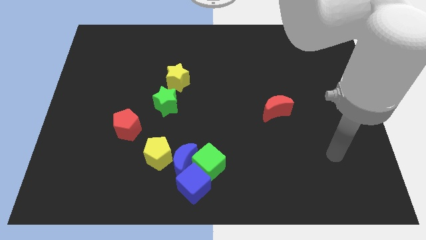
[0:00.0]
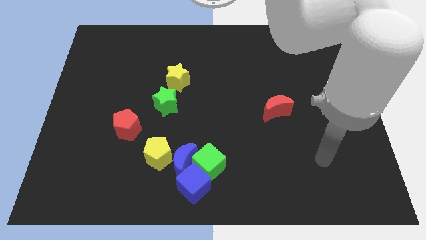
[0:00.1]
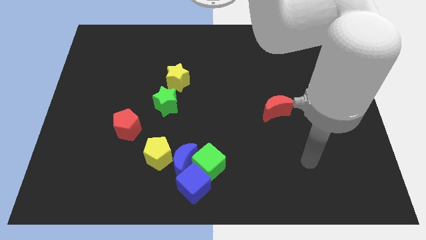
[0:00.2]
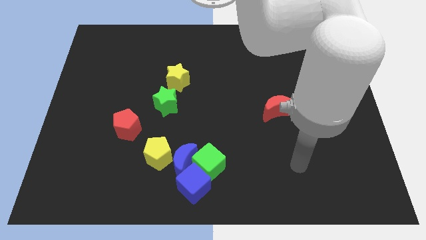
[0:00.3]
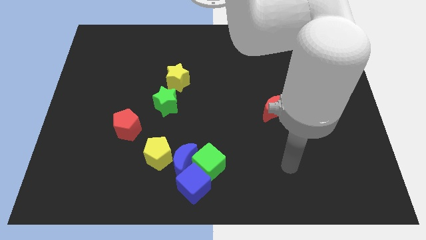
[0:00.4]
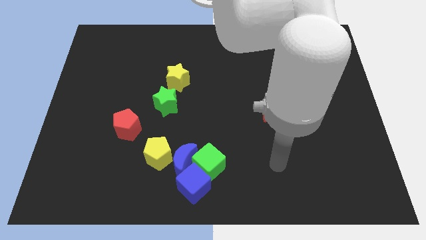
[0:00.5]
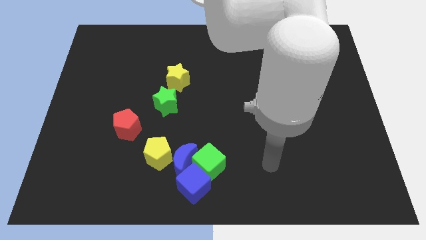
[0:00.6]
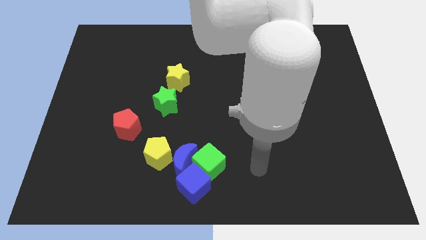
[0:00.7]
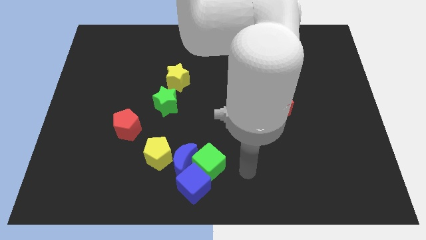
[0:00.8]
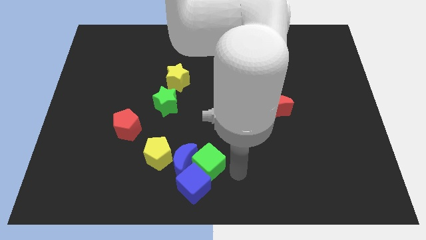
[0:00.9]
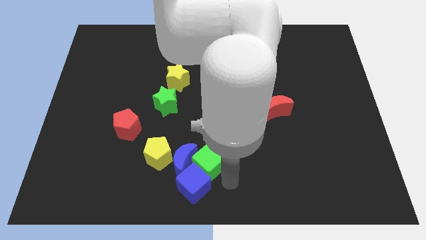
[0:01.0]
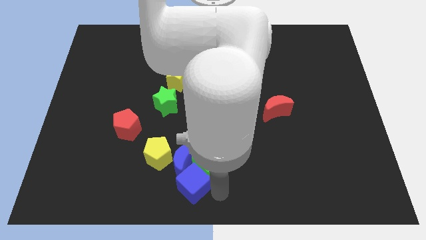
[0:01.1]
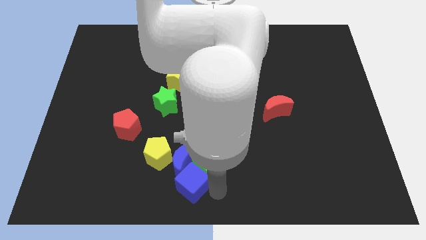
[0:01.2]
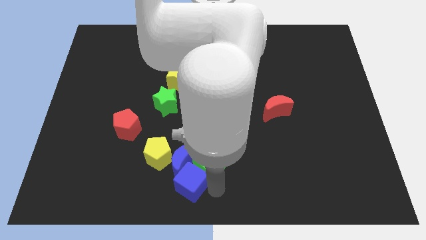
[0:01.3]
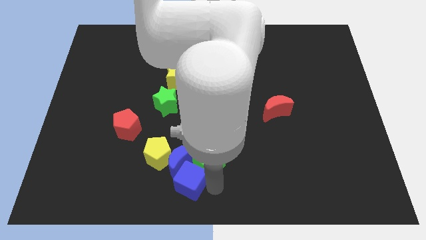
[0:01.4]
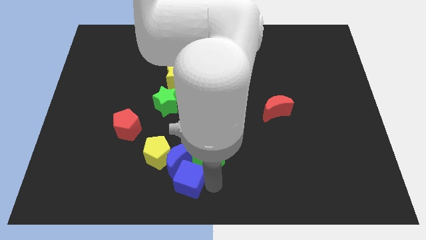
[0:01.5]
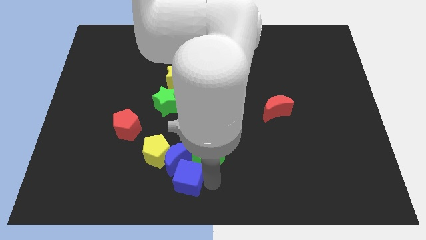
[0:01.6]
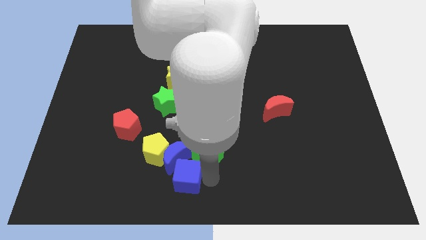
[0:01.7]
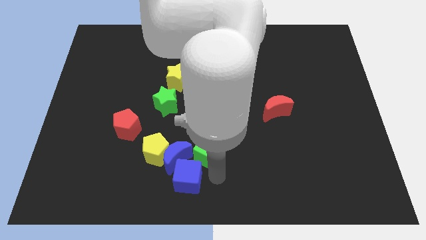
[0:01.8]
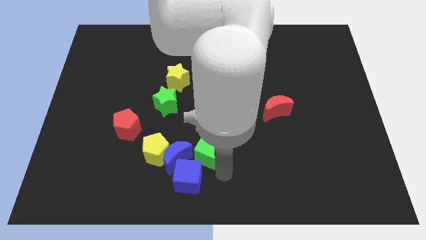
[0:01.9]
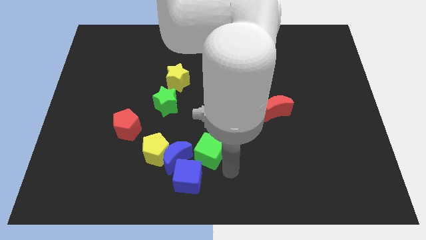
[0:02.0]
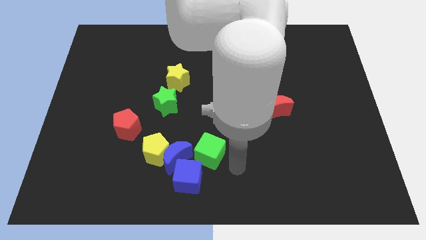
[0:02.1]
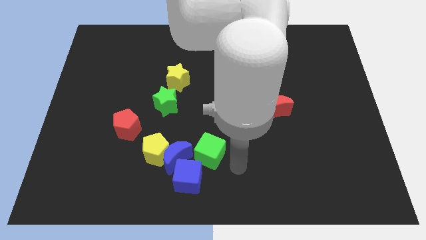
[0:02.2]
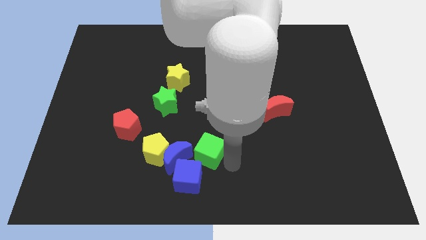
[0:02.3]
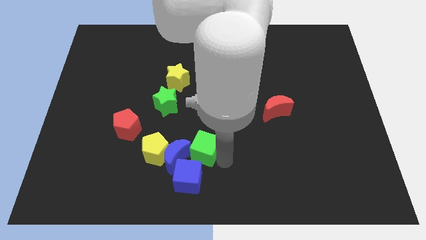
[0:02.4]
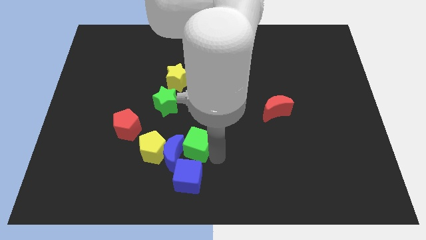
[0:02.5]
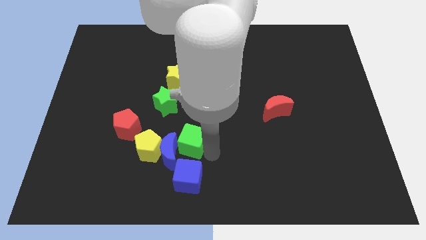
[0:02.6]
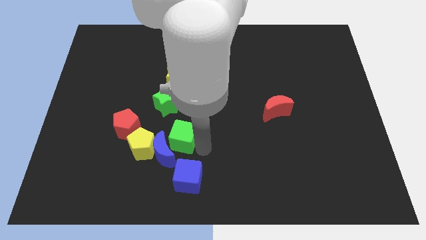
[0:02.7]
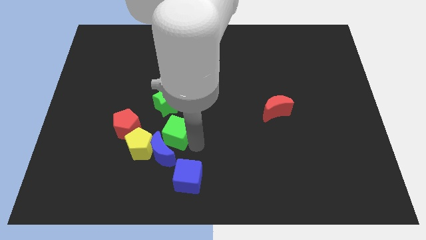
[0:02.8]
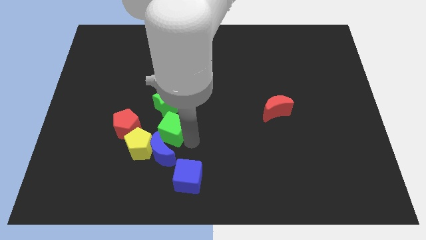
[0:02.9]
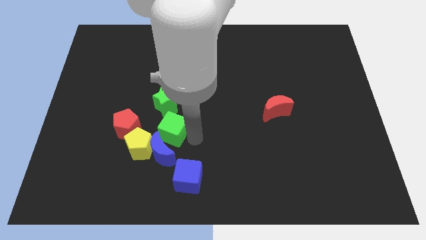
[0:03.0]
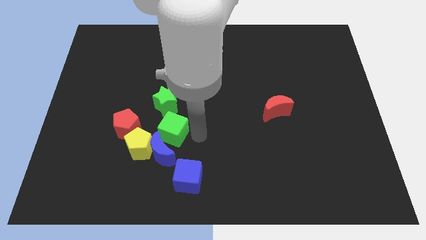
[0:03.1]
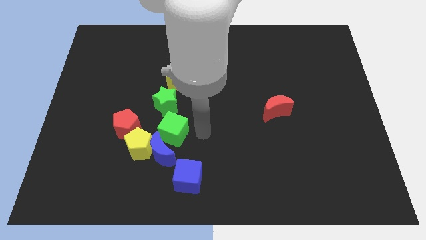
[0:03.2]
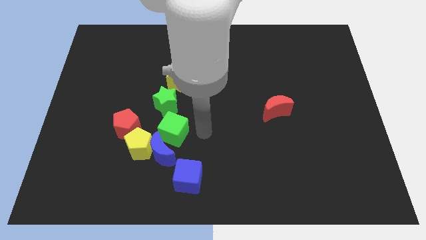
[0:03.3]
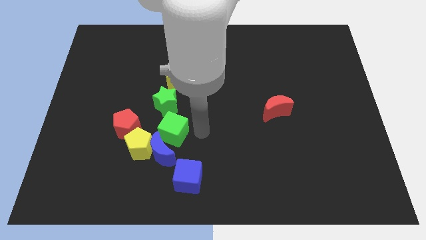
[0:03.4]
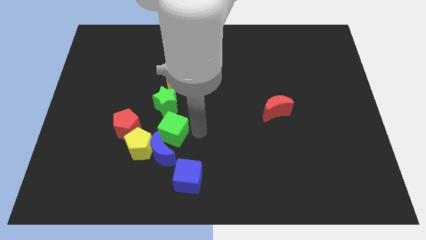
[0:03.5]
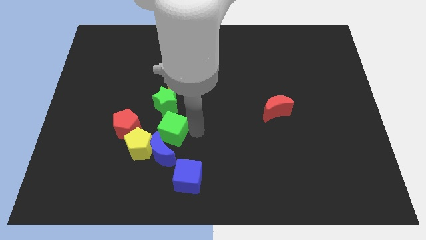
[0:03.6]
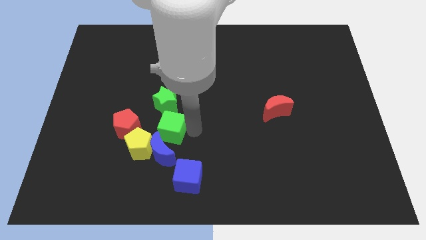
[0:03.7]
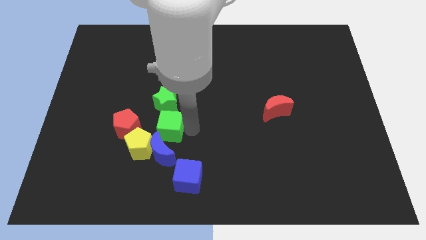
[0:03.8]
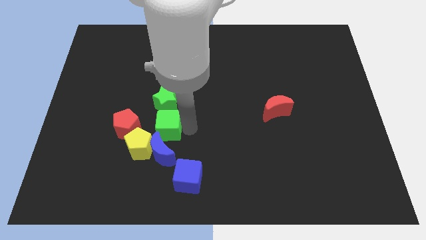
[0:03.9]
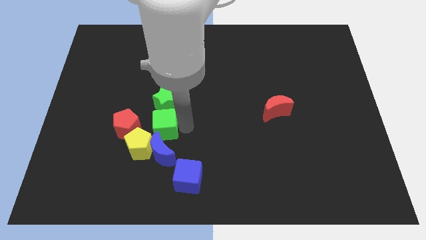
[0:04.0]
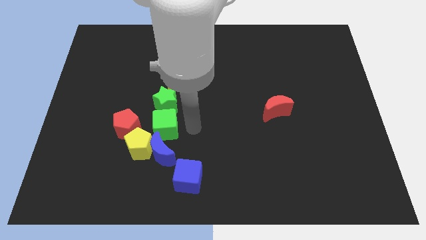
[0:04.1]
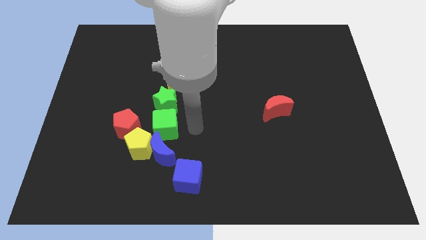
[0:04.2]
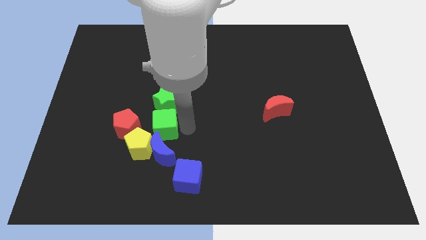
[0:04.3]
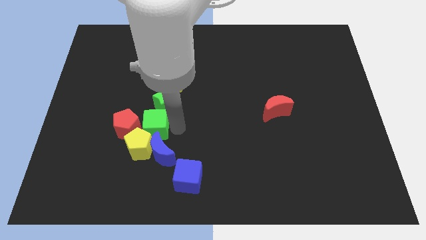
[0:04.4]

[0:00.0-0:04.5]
move the green cube close to the red pentagon

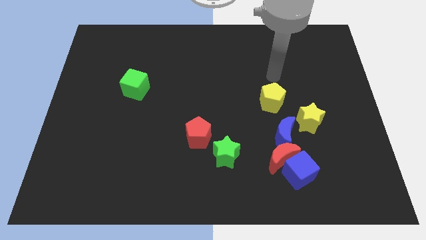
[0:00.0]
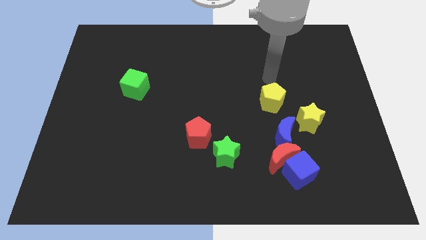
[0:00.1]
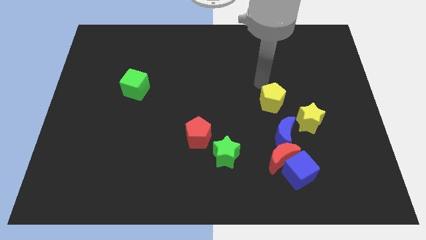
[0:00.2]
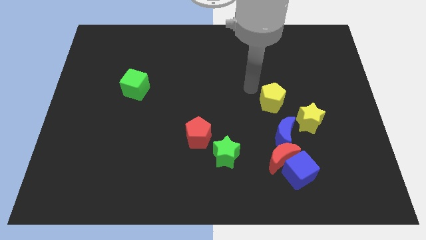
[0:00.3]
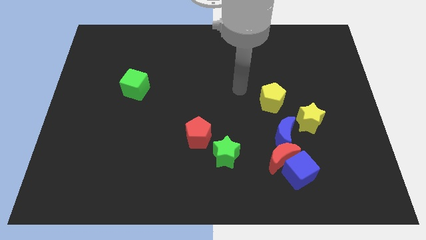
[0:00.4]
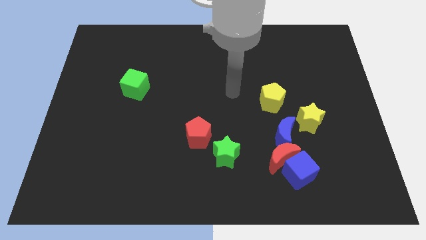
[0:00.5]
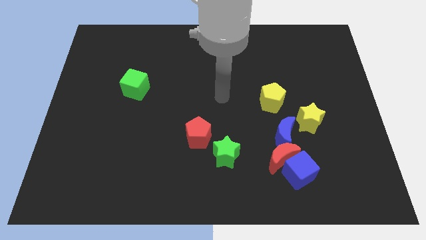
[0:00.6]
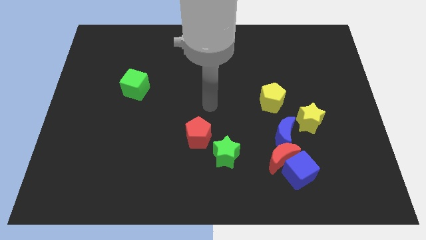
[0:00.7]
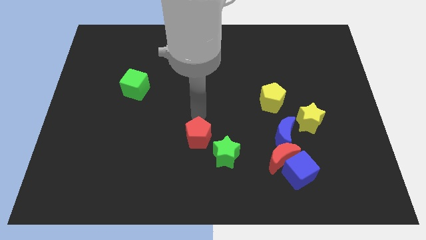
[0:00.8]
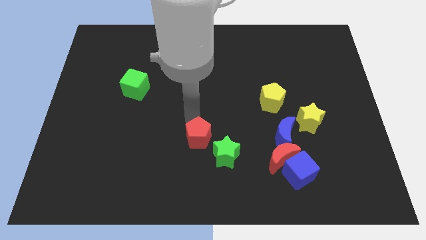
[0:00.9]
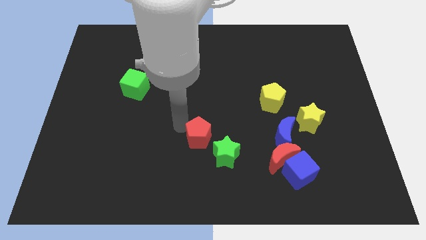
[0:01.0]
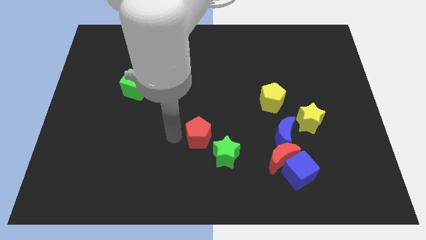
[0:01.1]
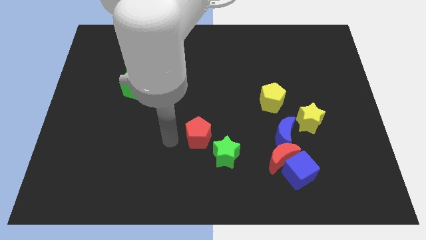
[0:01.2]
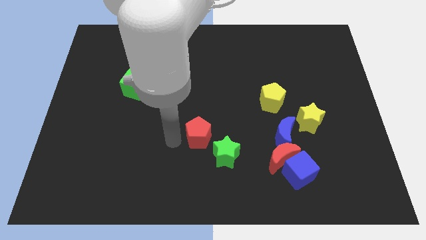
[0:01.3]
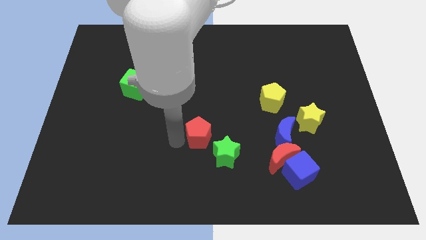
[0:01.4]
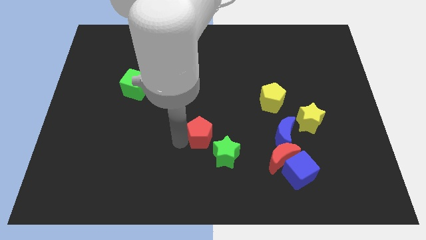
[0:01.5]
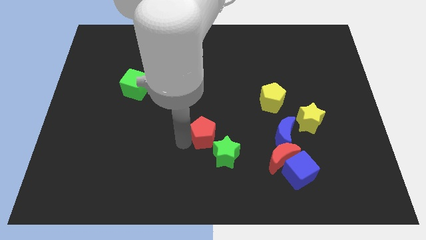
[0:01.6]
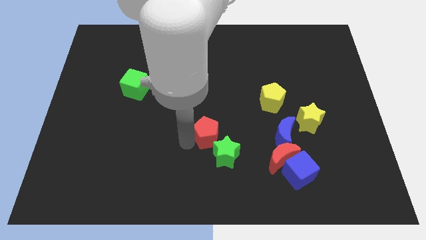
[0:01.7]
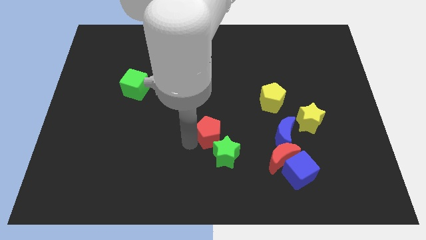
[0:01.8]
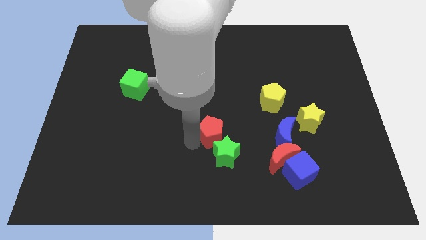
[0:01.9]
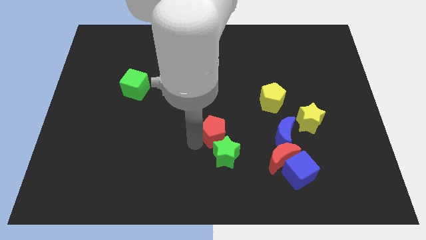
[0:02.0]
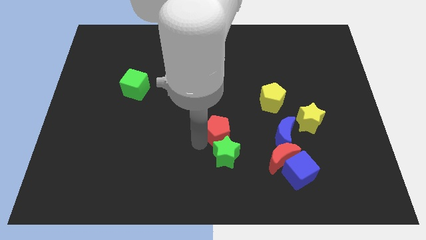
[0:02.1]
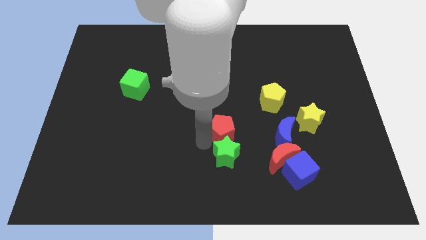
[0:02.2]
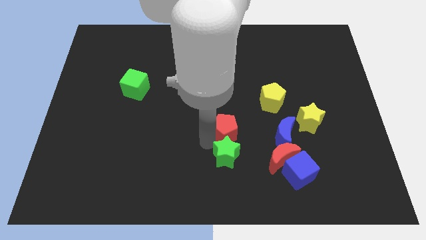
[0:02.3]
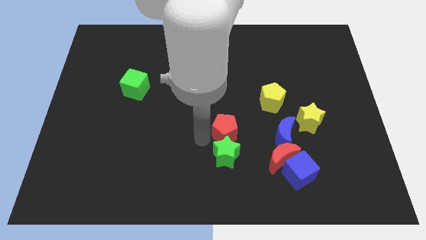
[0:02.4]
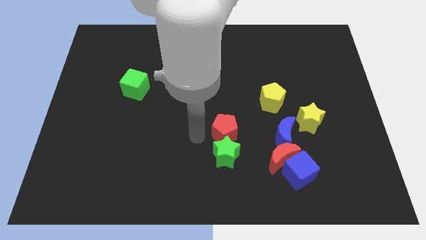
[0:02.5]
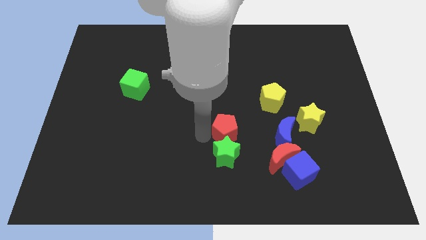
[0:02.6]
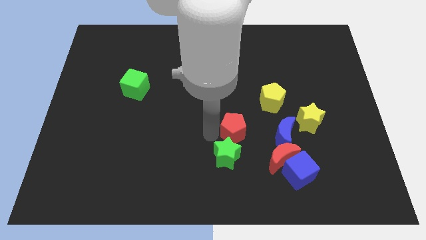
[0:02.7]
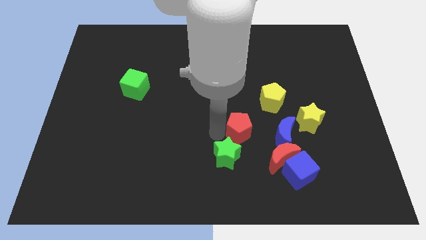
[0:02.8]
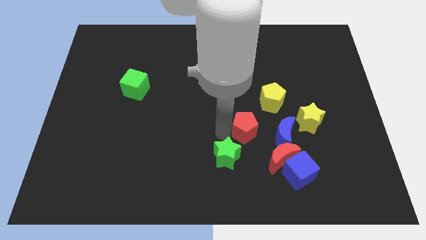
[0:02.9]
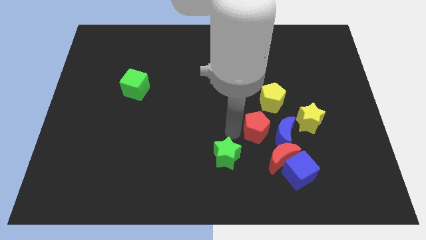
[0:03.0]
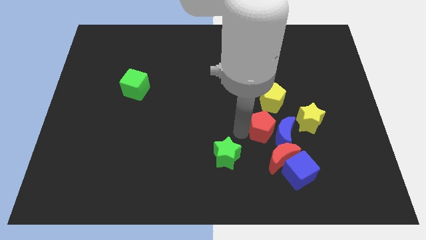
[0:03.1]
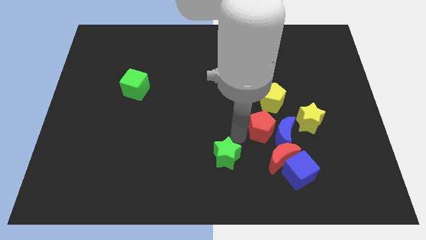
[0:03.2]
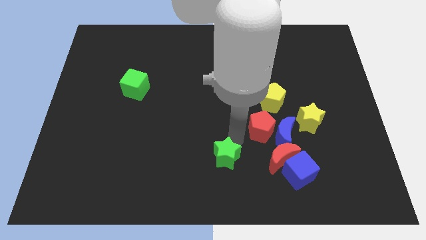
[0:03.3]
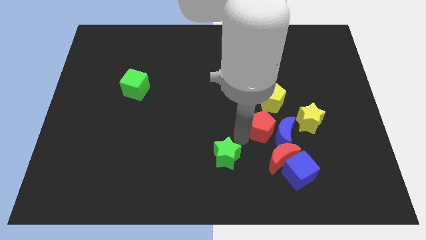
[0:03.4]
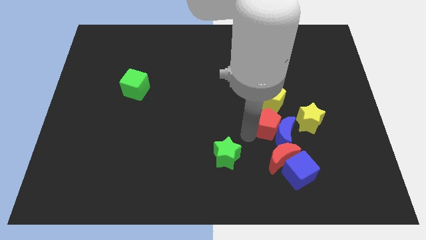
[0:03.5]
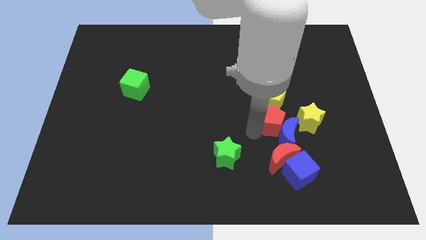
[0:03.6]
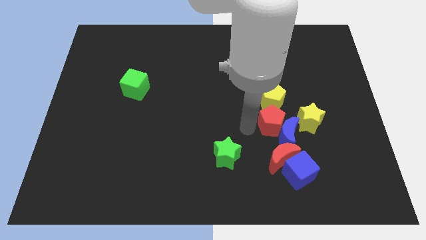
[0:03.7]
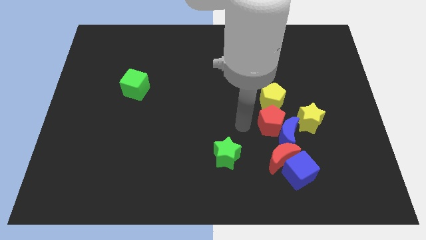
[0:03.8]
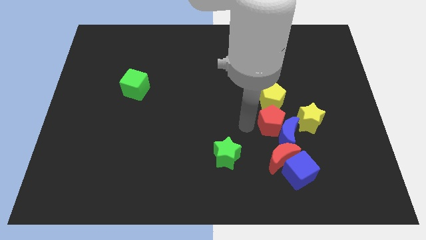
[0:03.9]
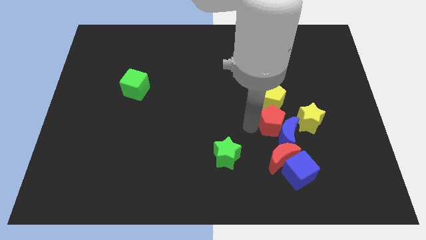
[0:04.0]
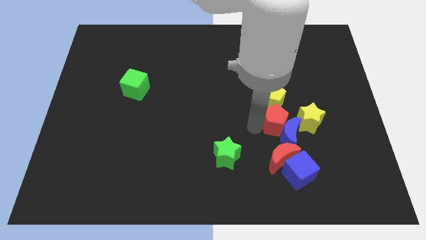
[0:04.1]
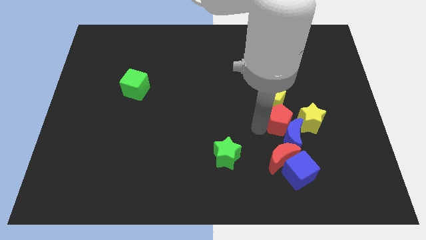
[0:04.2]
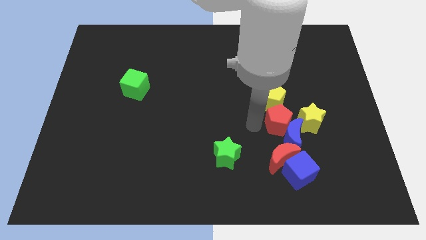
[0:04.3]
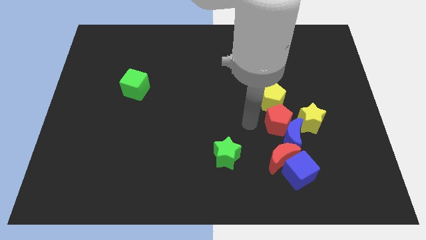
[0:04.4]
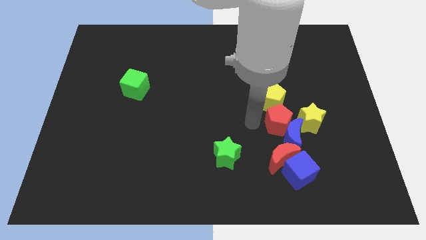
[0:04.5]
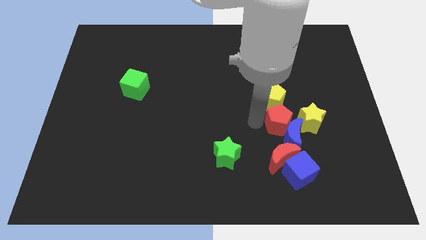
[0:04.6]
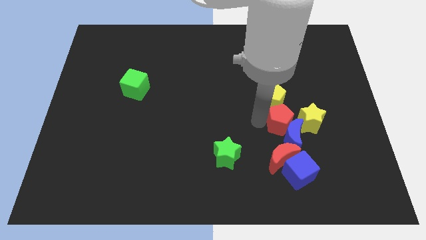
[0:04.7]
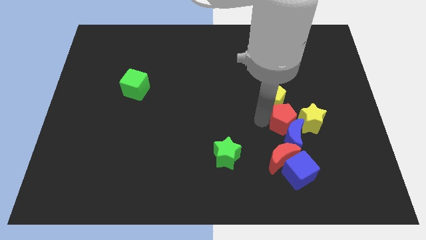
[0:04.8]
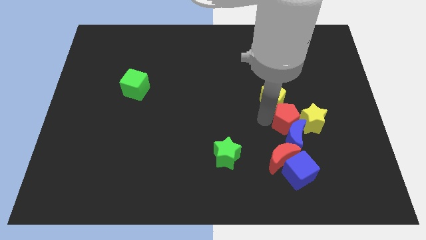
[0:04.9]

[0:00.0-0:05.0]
move the red pentagon next to the yellow star
